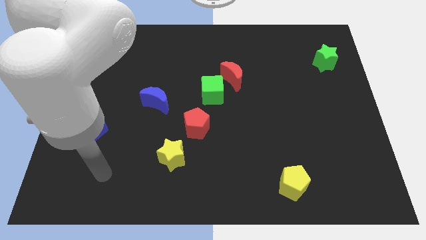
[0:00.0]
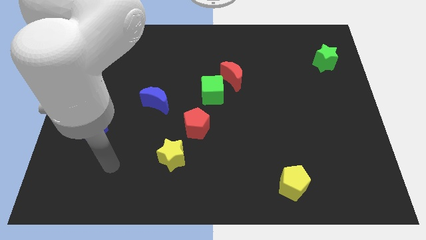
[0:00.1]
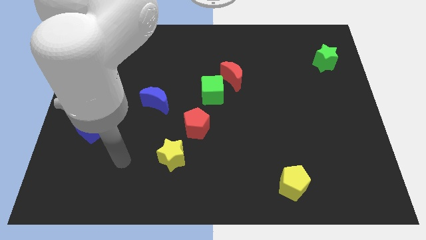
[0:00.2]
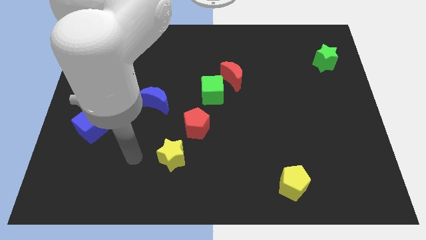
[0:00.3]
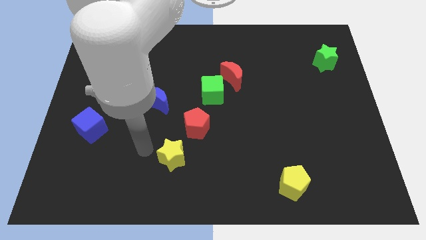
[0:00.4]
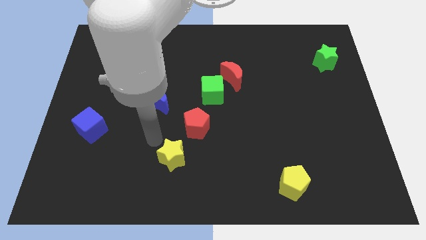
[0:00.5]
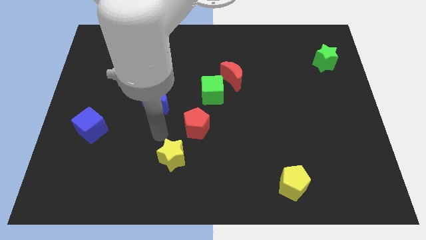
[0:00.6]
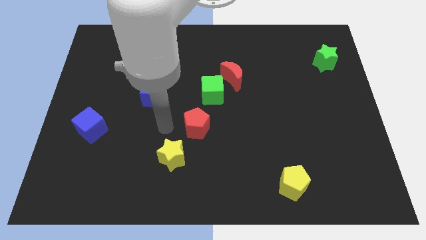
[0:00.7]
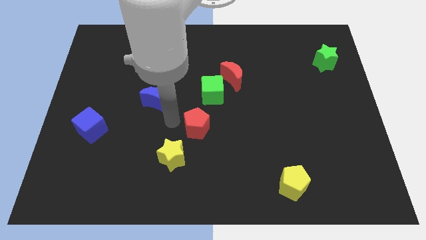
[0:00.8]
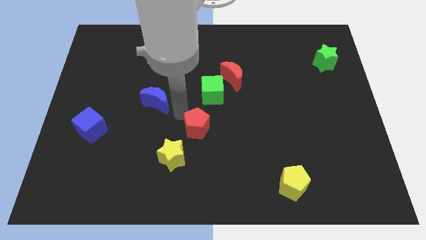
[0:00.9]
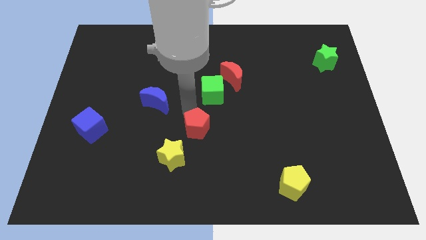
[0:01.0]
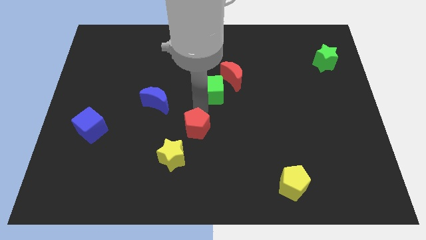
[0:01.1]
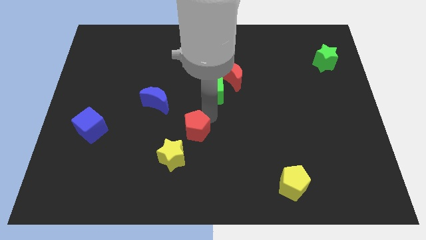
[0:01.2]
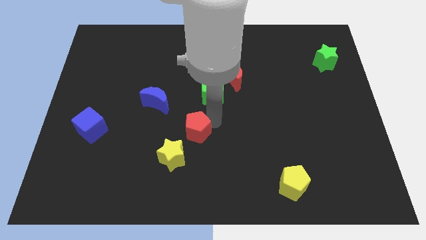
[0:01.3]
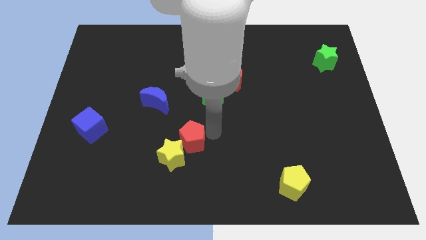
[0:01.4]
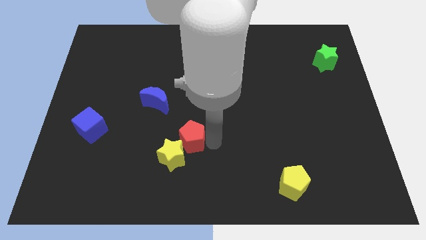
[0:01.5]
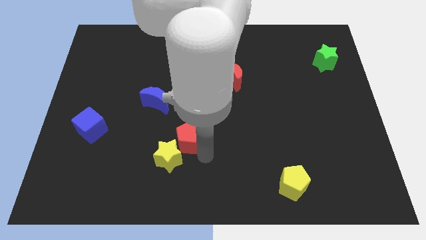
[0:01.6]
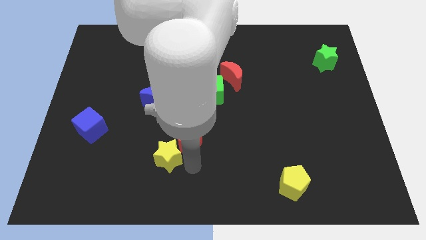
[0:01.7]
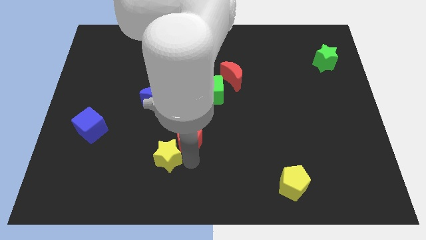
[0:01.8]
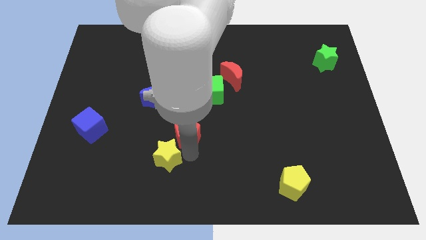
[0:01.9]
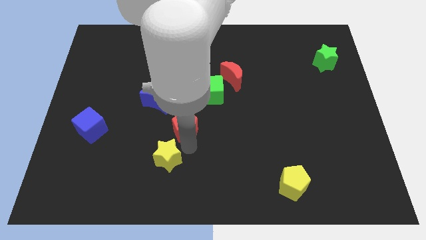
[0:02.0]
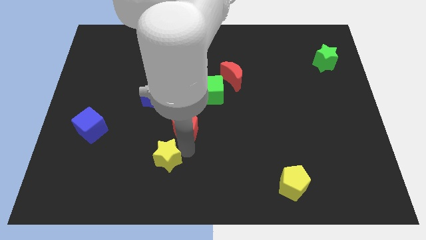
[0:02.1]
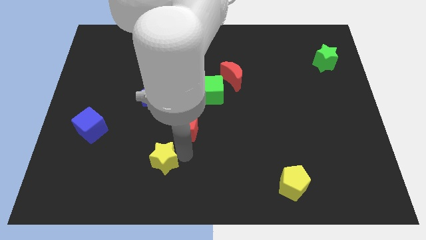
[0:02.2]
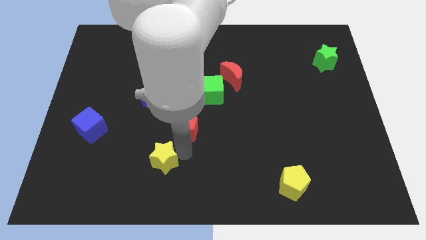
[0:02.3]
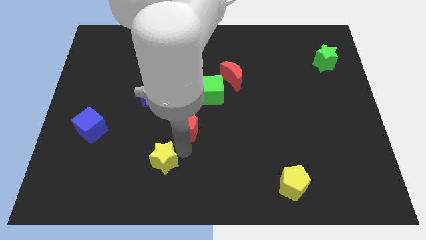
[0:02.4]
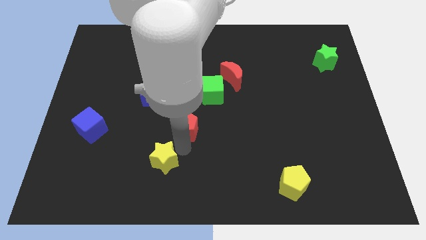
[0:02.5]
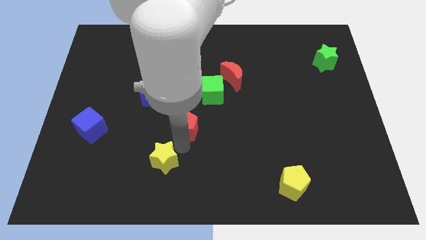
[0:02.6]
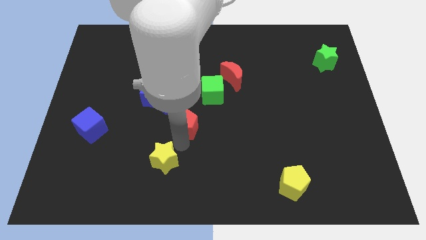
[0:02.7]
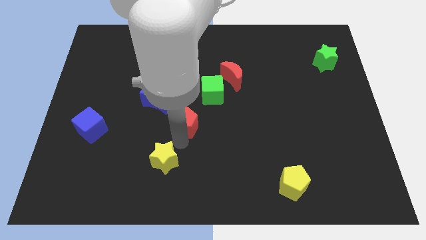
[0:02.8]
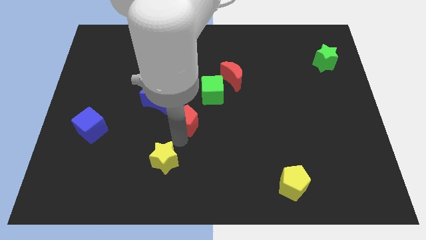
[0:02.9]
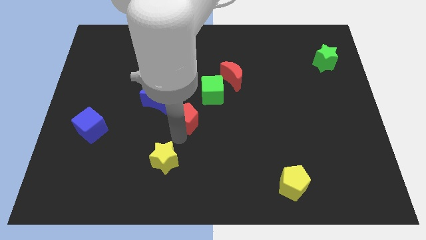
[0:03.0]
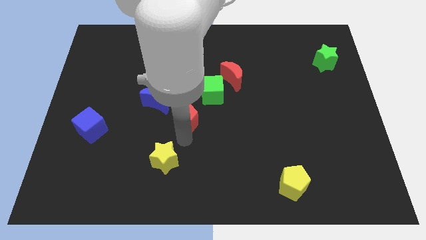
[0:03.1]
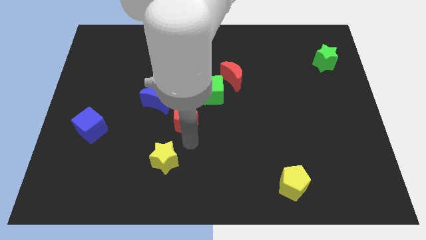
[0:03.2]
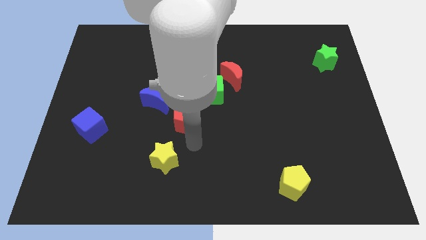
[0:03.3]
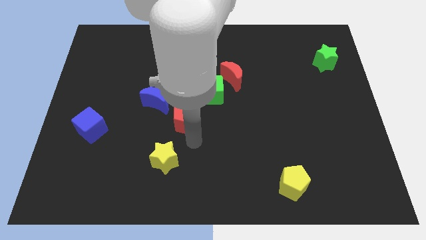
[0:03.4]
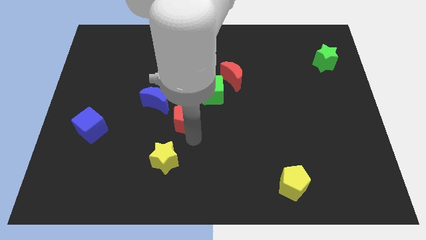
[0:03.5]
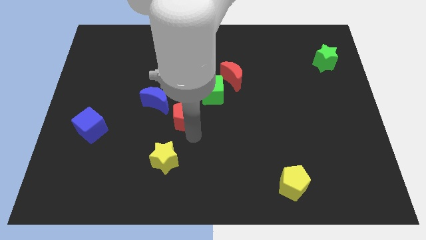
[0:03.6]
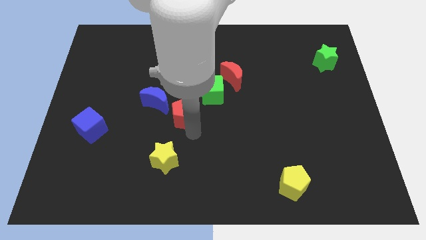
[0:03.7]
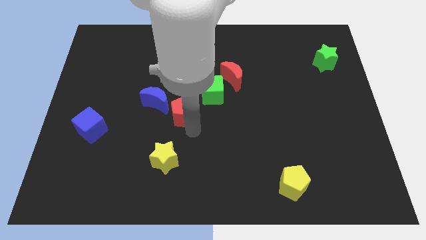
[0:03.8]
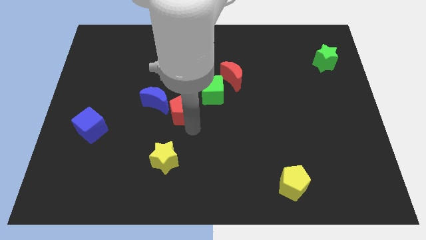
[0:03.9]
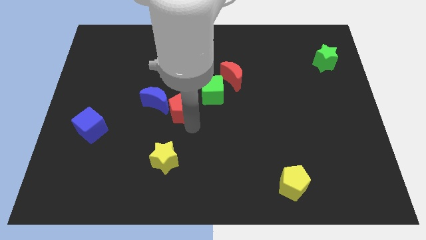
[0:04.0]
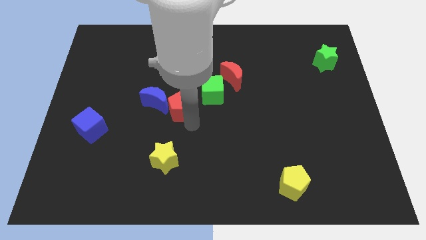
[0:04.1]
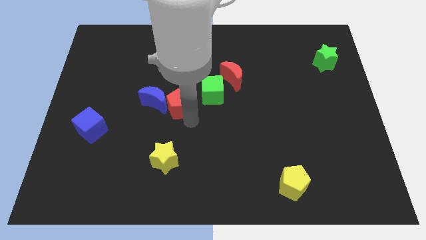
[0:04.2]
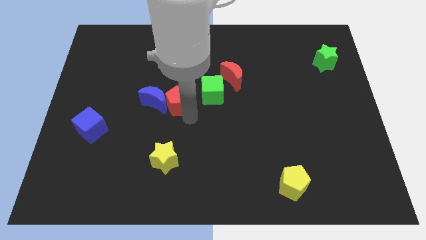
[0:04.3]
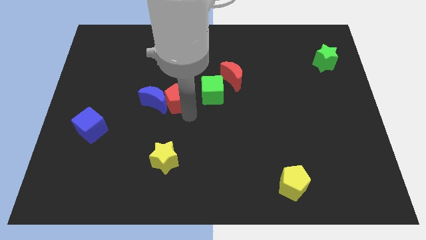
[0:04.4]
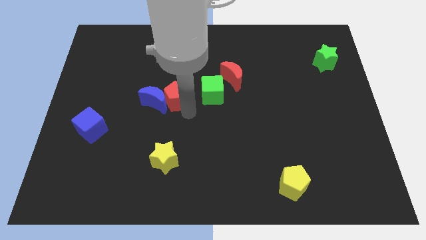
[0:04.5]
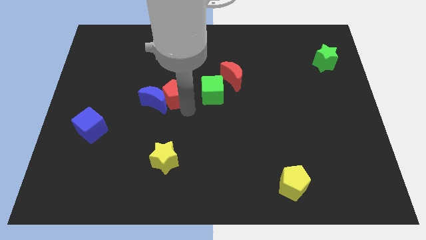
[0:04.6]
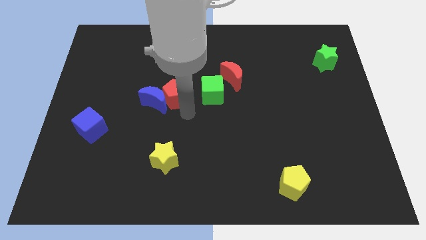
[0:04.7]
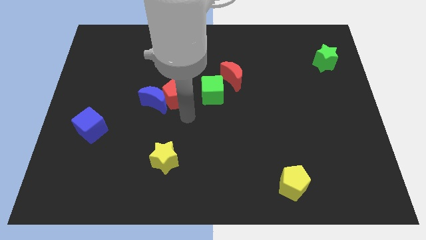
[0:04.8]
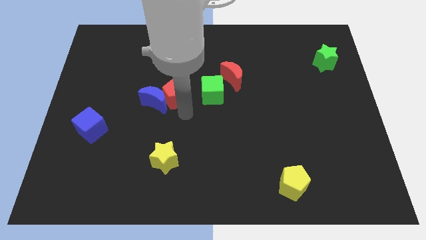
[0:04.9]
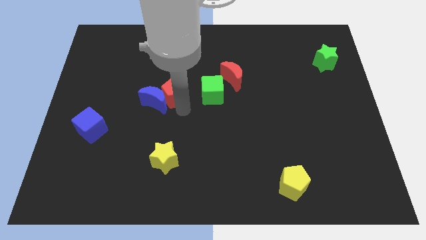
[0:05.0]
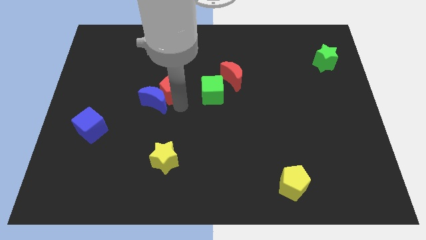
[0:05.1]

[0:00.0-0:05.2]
push the red pentagon above the blue moon

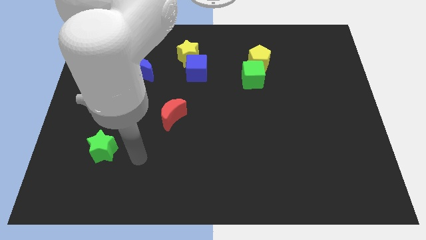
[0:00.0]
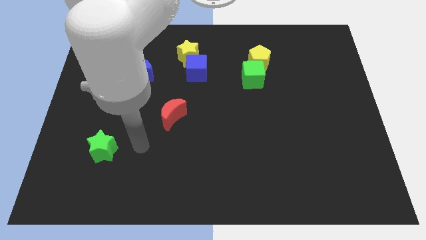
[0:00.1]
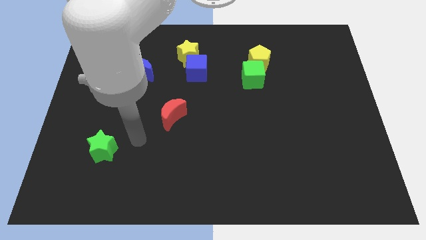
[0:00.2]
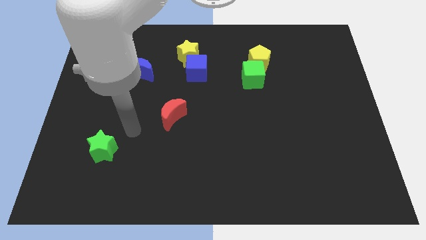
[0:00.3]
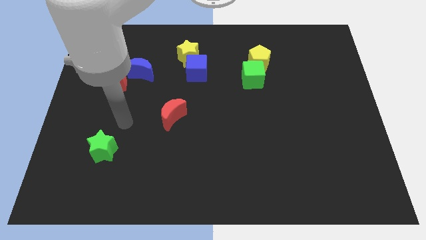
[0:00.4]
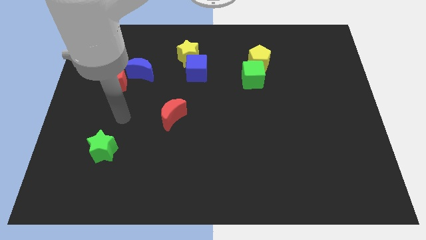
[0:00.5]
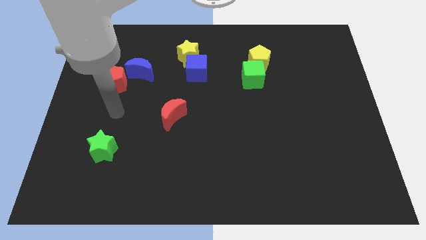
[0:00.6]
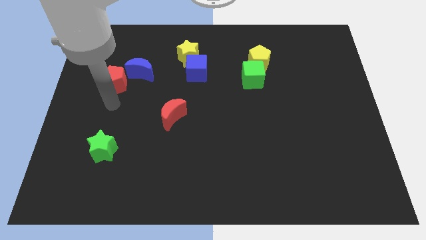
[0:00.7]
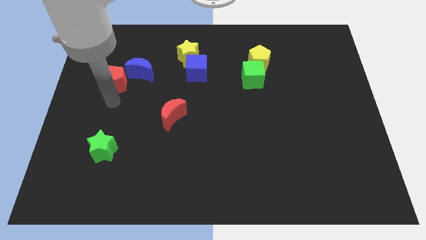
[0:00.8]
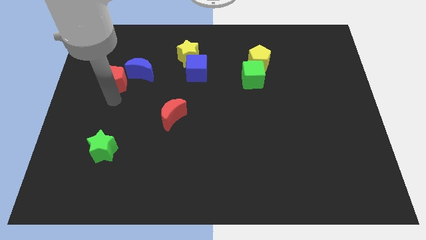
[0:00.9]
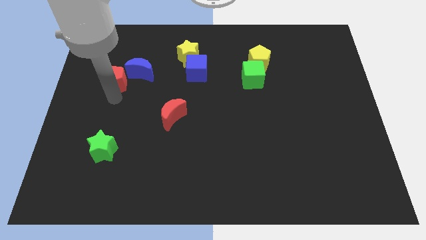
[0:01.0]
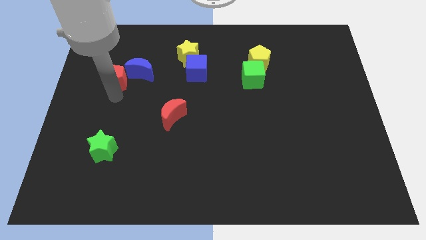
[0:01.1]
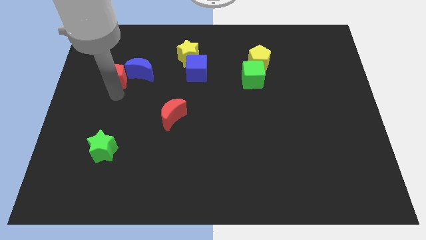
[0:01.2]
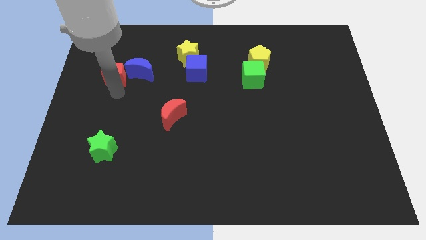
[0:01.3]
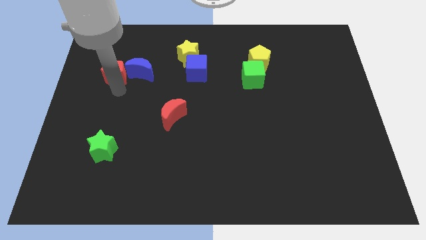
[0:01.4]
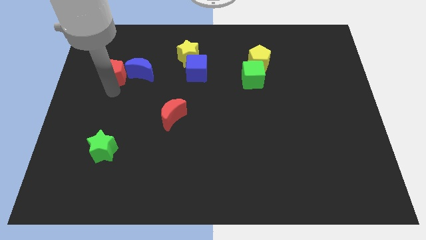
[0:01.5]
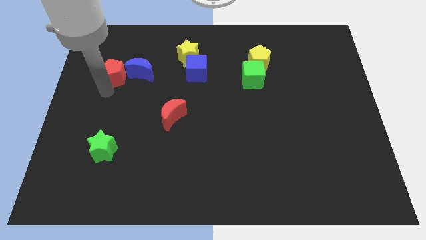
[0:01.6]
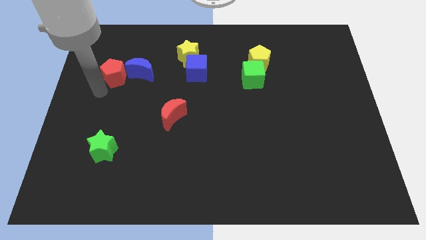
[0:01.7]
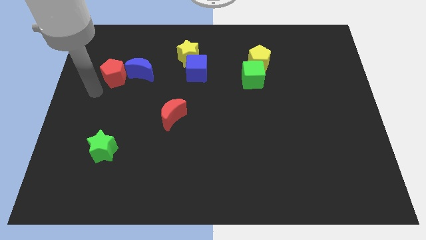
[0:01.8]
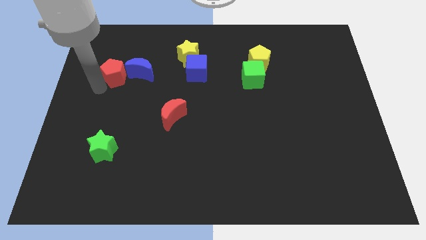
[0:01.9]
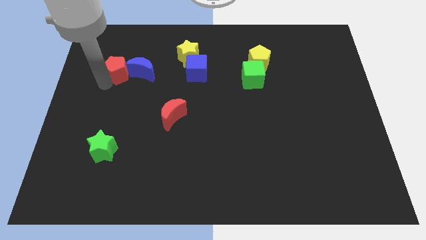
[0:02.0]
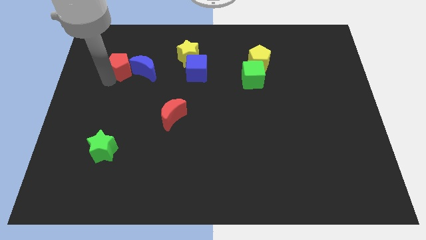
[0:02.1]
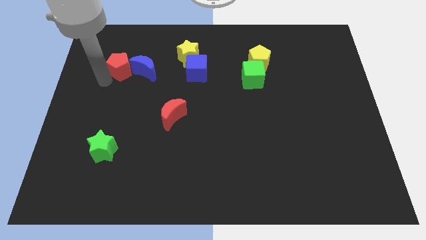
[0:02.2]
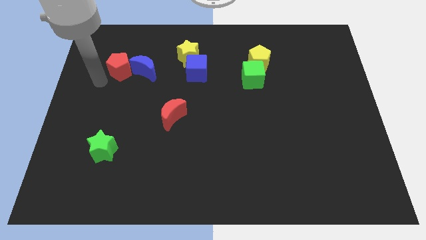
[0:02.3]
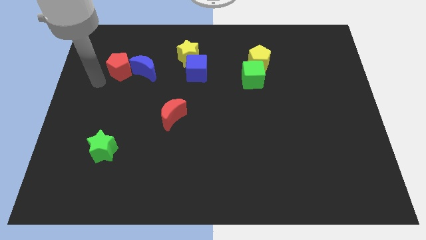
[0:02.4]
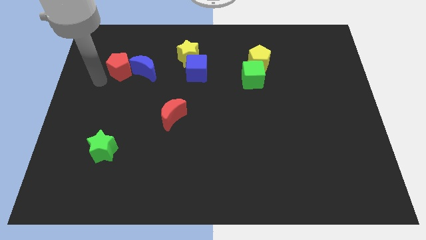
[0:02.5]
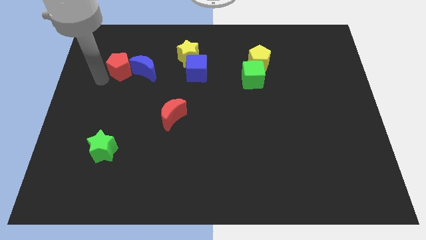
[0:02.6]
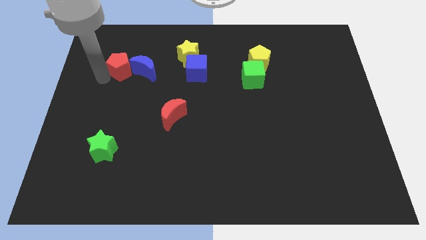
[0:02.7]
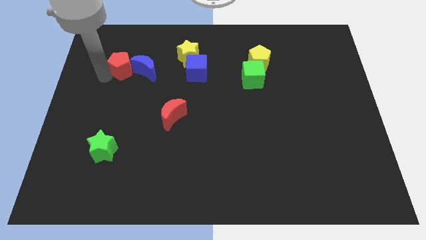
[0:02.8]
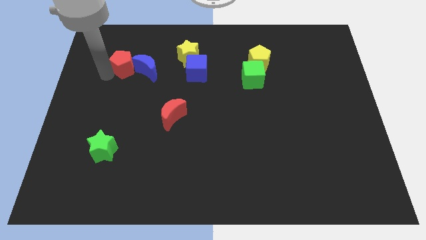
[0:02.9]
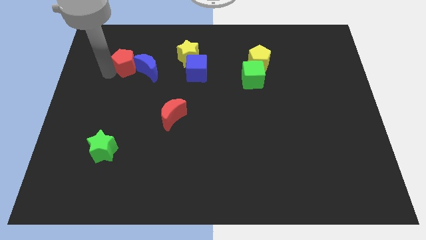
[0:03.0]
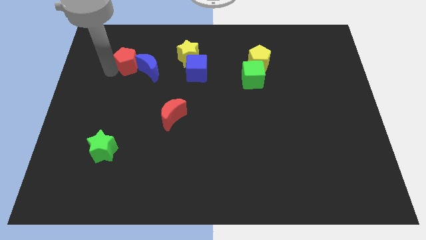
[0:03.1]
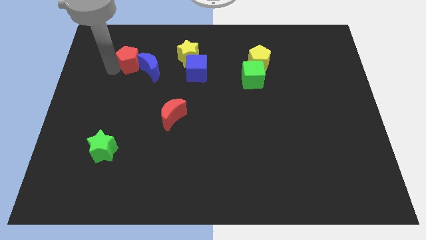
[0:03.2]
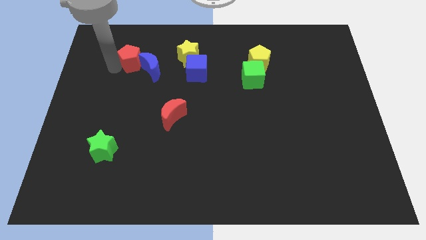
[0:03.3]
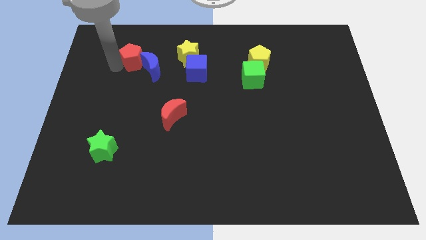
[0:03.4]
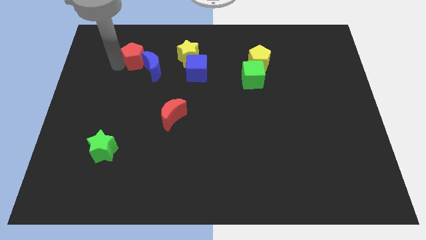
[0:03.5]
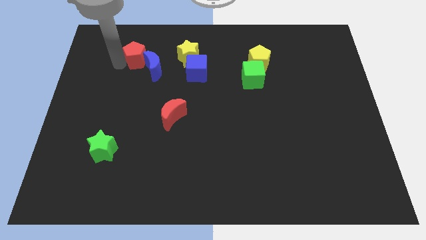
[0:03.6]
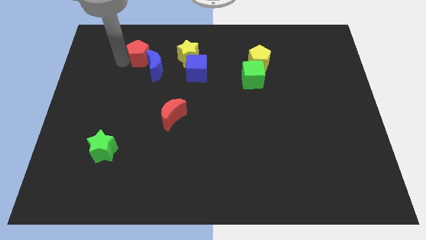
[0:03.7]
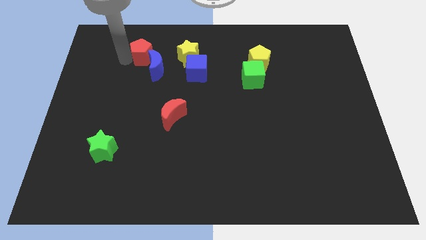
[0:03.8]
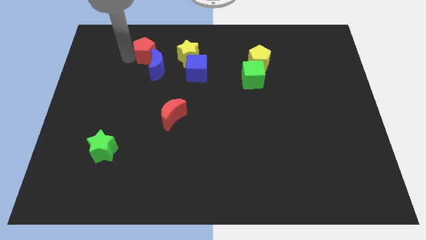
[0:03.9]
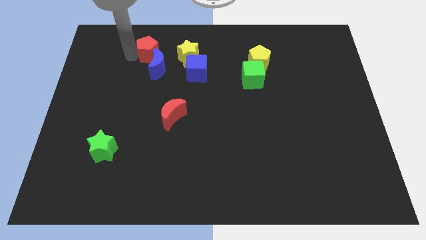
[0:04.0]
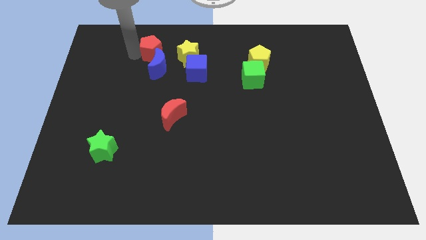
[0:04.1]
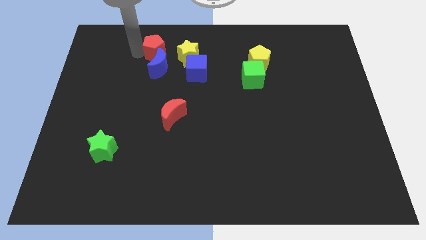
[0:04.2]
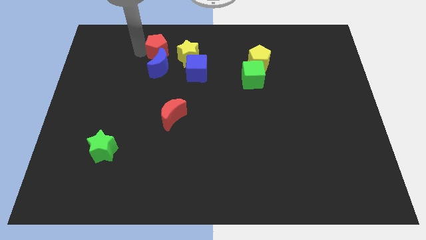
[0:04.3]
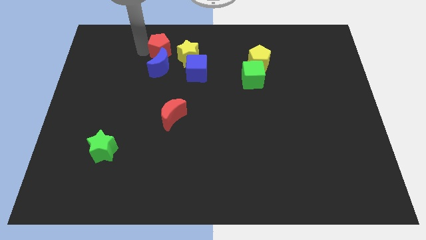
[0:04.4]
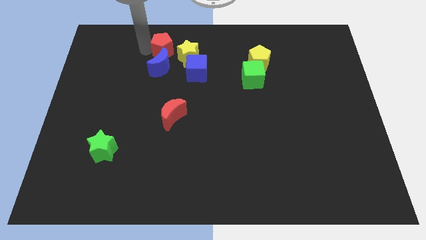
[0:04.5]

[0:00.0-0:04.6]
move the red pentagon to the top right of the blue moon
